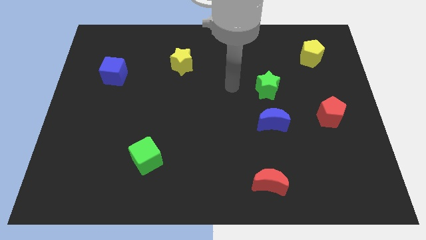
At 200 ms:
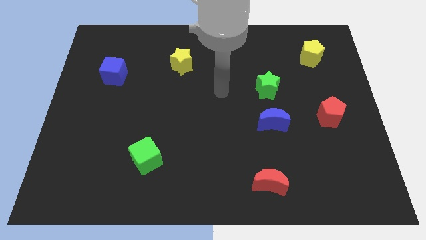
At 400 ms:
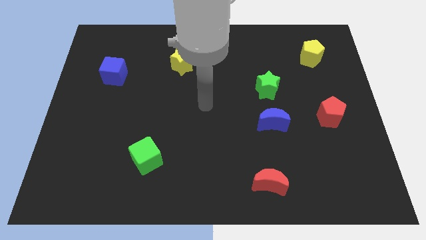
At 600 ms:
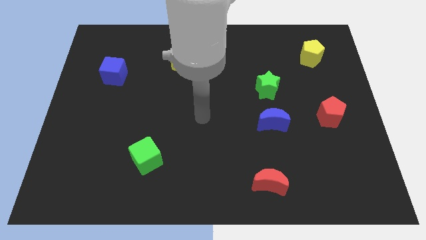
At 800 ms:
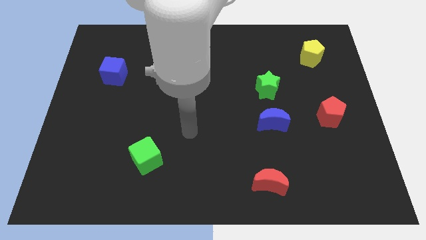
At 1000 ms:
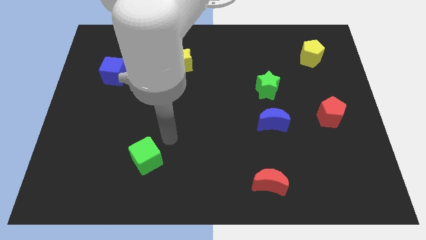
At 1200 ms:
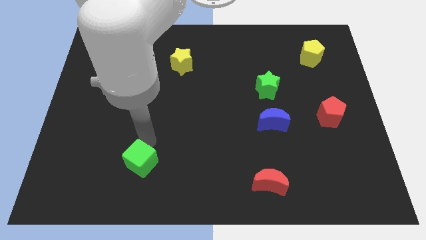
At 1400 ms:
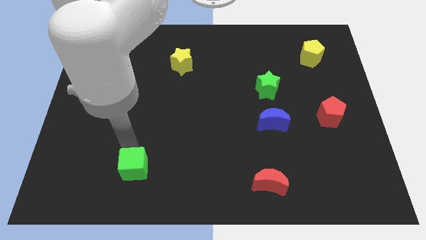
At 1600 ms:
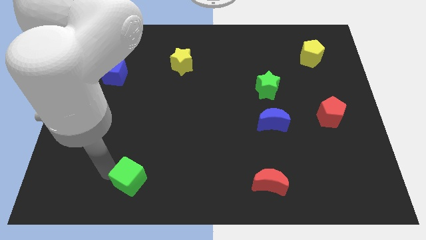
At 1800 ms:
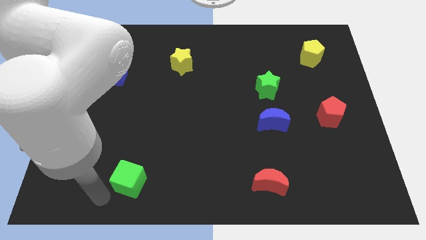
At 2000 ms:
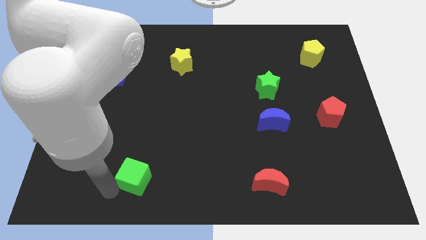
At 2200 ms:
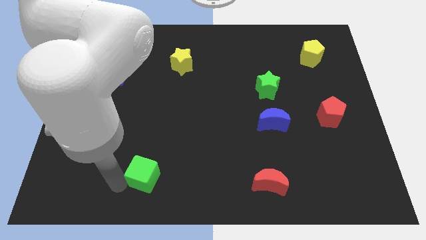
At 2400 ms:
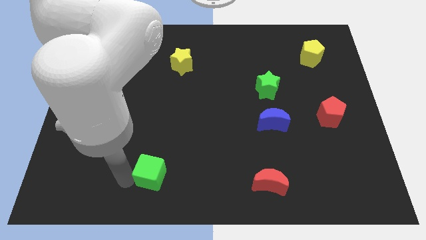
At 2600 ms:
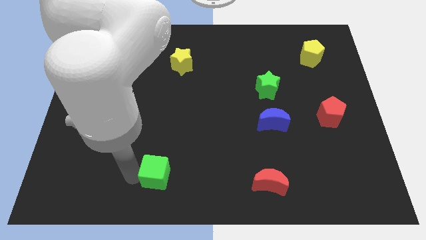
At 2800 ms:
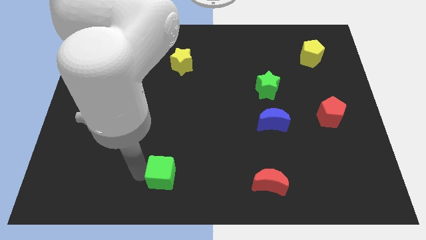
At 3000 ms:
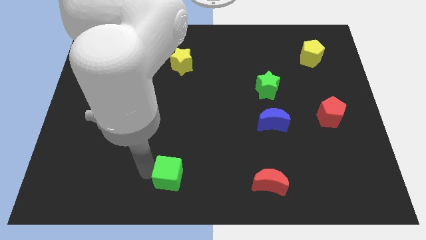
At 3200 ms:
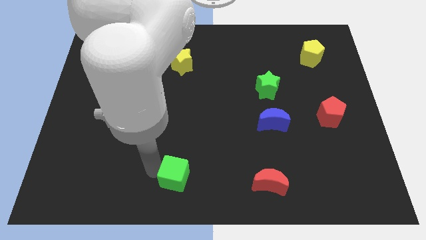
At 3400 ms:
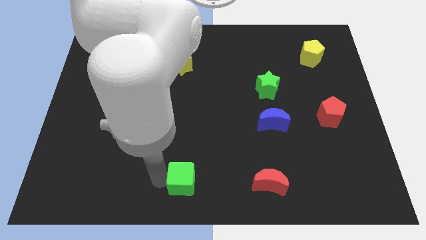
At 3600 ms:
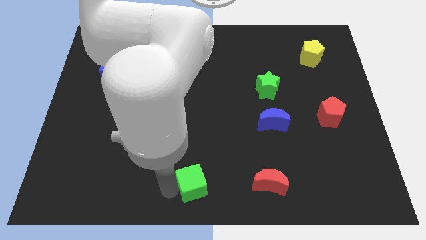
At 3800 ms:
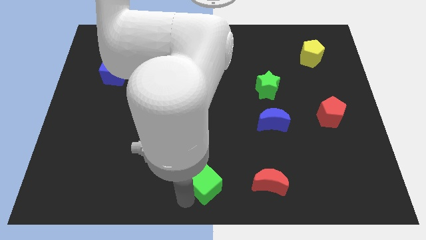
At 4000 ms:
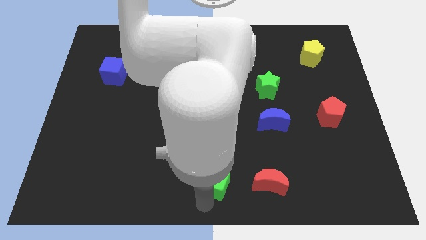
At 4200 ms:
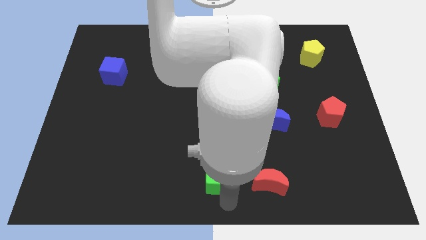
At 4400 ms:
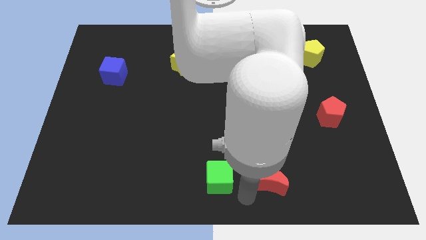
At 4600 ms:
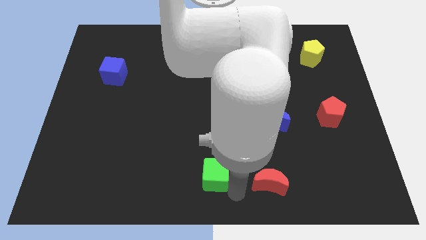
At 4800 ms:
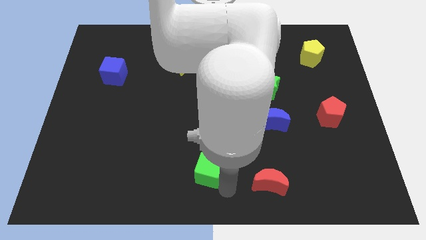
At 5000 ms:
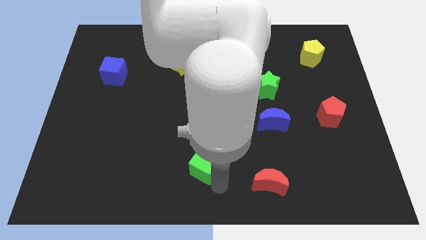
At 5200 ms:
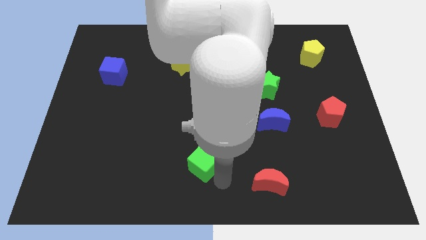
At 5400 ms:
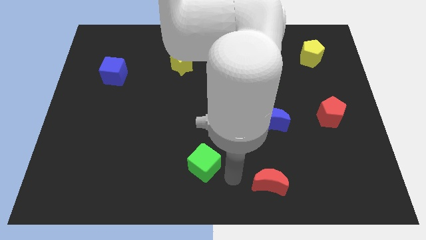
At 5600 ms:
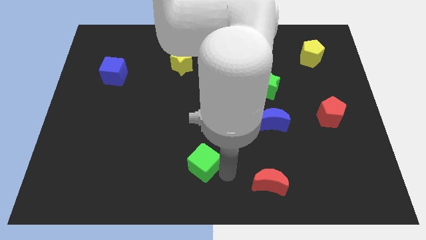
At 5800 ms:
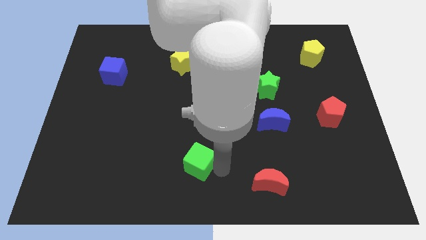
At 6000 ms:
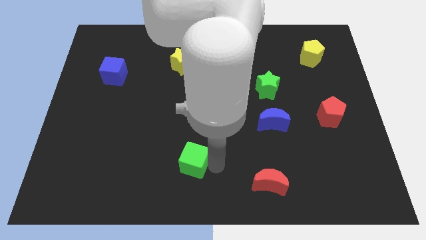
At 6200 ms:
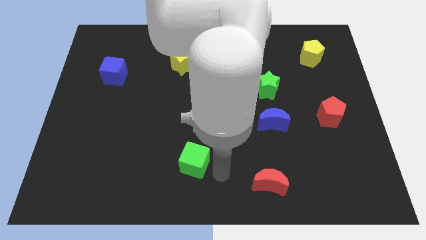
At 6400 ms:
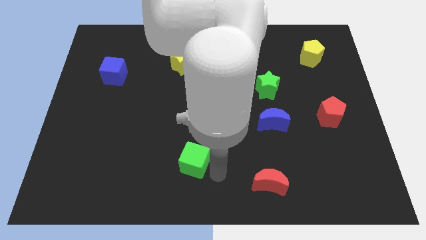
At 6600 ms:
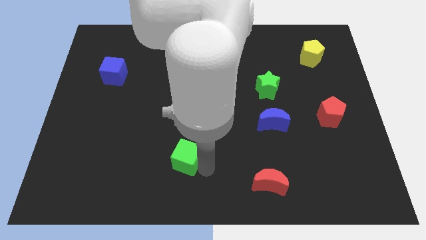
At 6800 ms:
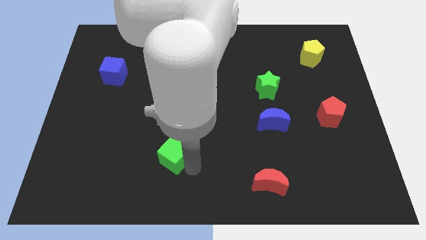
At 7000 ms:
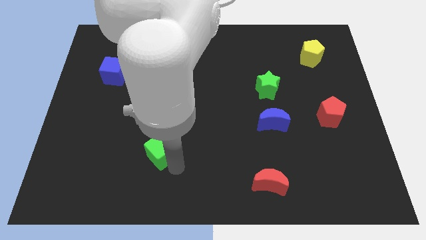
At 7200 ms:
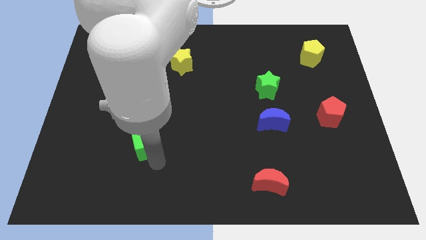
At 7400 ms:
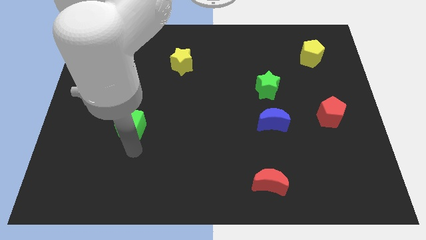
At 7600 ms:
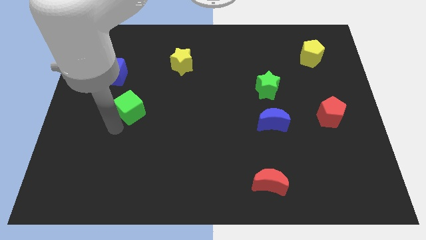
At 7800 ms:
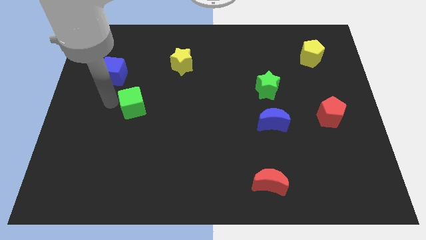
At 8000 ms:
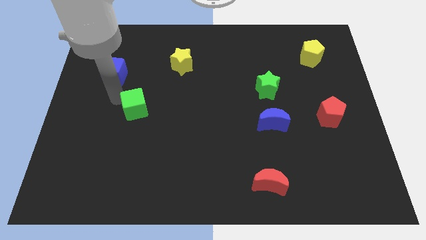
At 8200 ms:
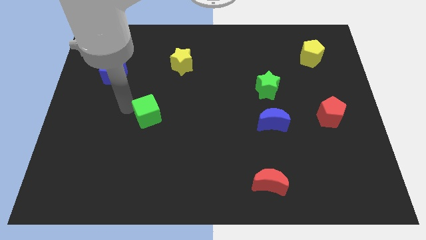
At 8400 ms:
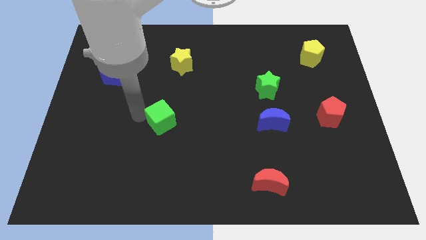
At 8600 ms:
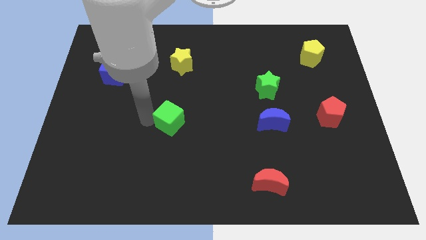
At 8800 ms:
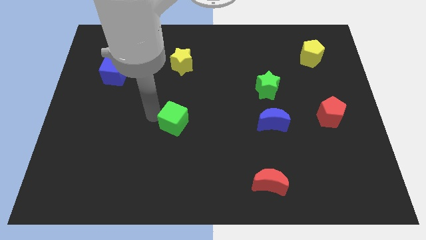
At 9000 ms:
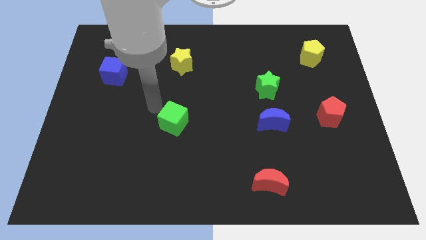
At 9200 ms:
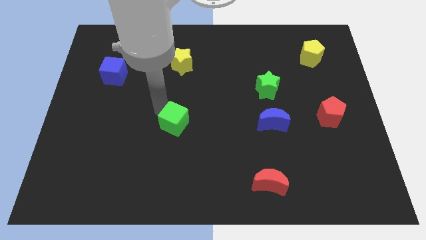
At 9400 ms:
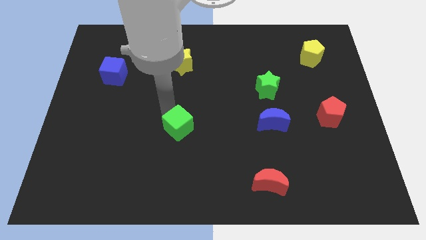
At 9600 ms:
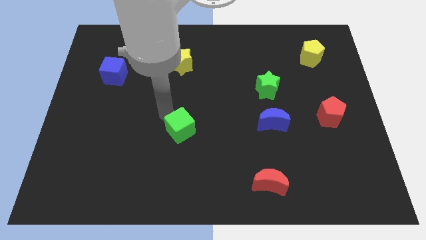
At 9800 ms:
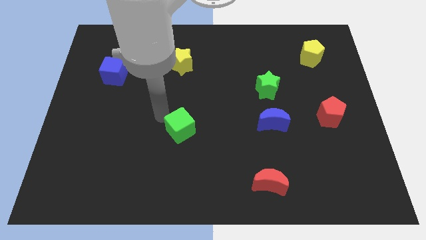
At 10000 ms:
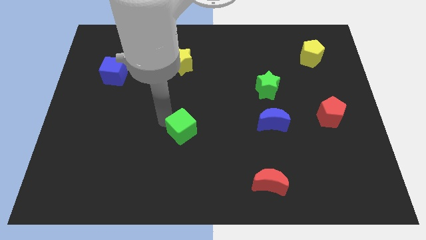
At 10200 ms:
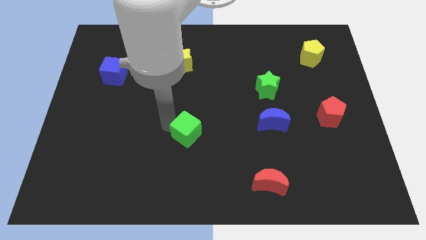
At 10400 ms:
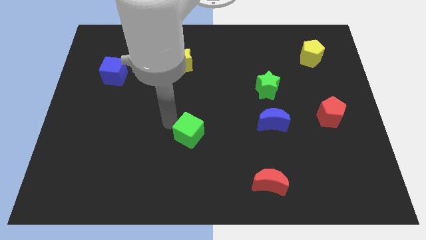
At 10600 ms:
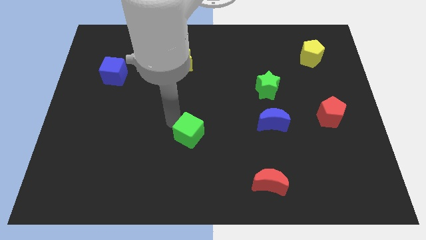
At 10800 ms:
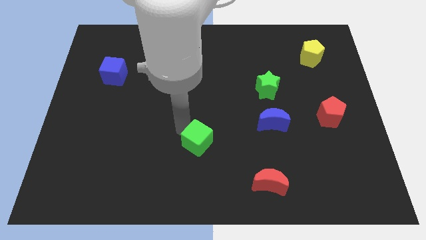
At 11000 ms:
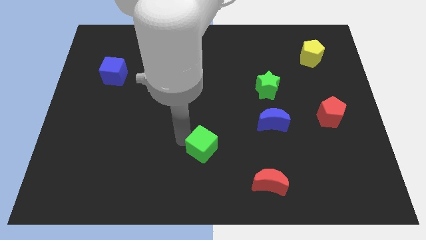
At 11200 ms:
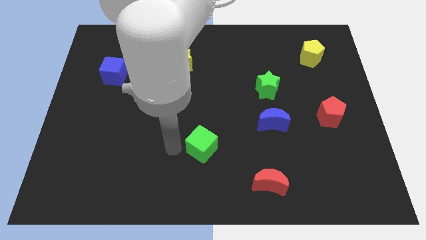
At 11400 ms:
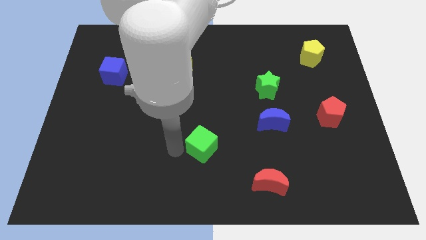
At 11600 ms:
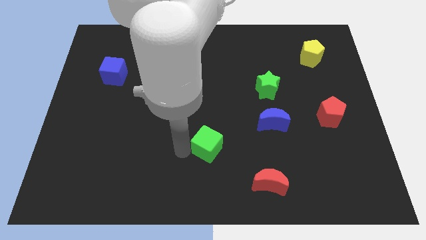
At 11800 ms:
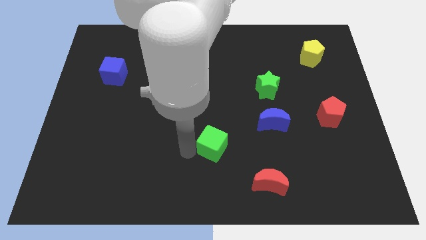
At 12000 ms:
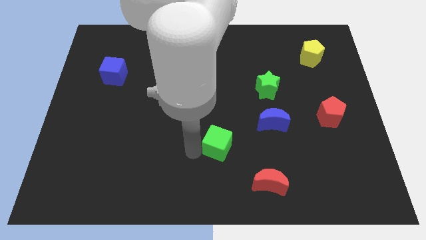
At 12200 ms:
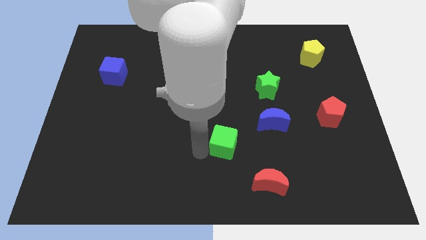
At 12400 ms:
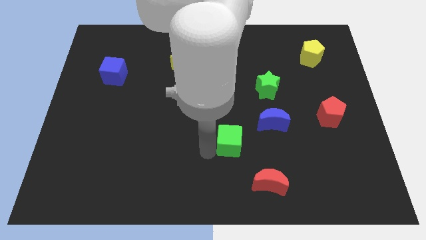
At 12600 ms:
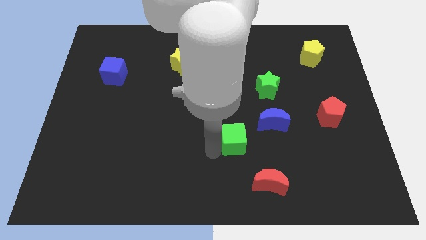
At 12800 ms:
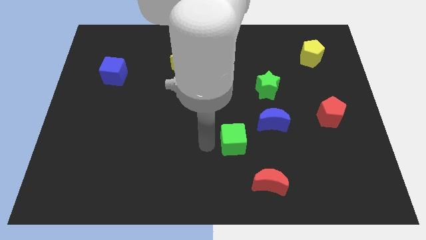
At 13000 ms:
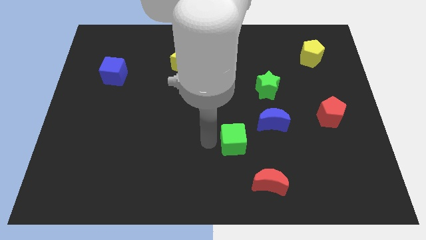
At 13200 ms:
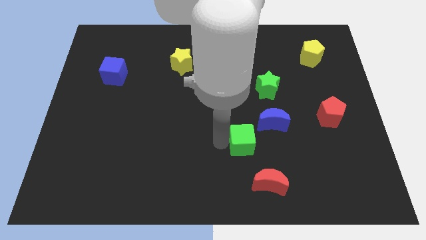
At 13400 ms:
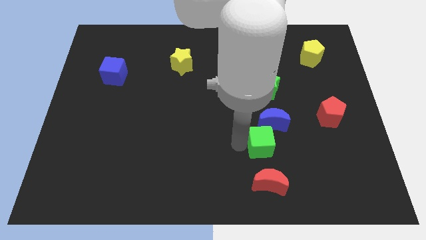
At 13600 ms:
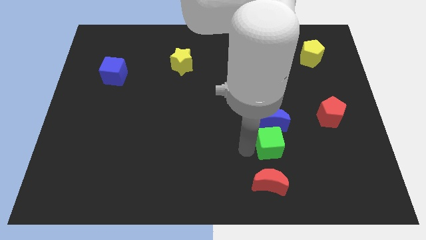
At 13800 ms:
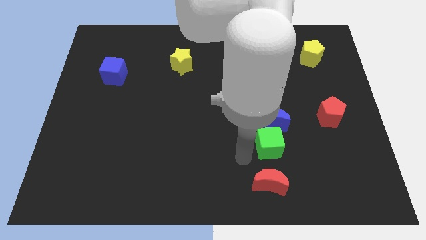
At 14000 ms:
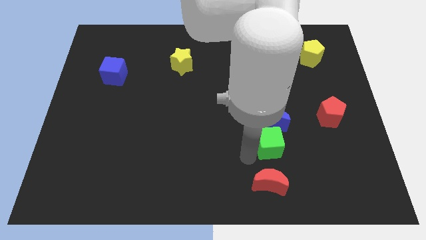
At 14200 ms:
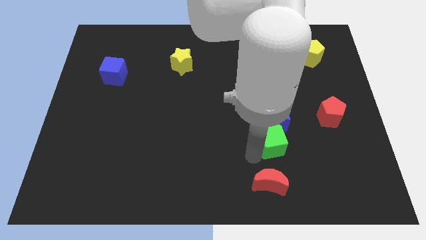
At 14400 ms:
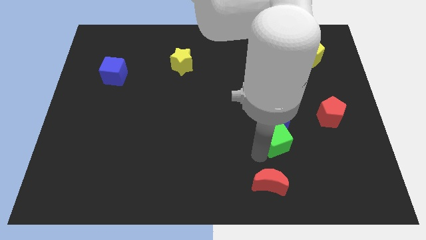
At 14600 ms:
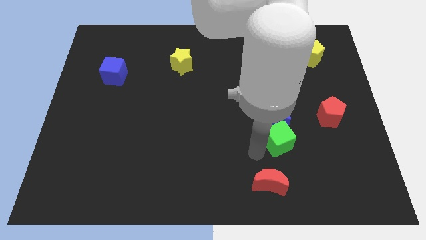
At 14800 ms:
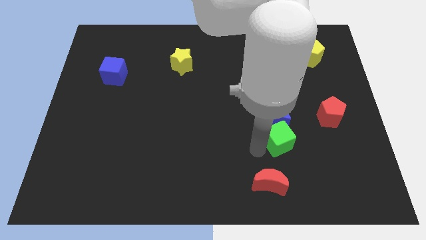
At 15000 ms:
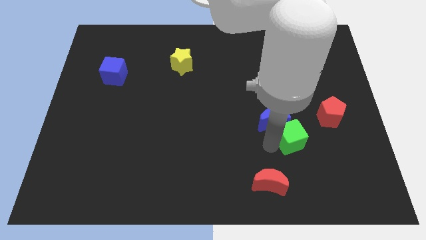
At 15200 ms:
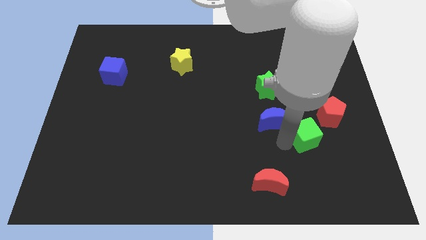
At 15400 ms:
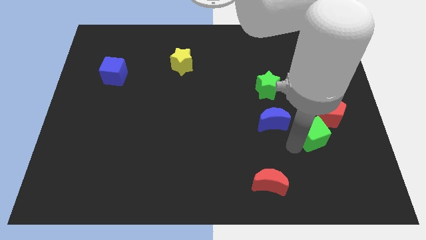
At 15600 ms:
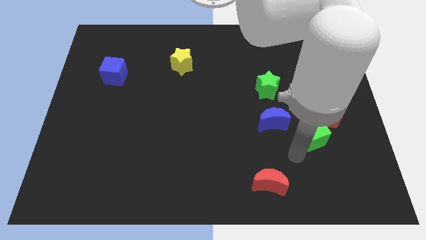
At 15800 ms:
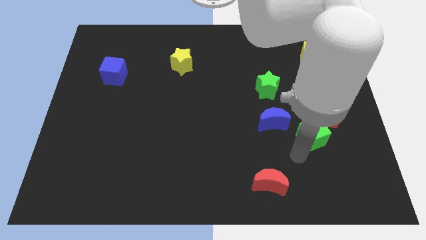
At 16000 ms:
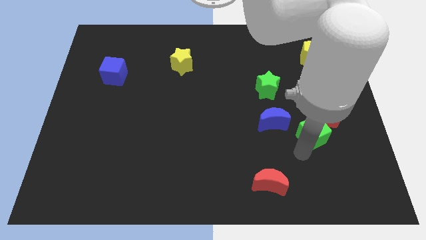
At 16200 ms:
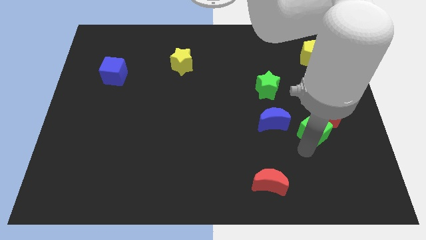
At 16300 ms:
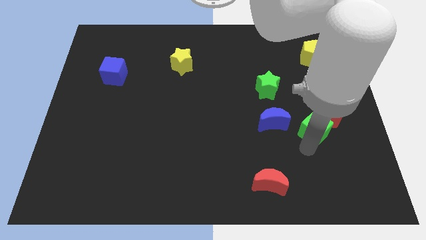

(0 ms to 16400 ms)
put the green cube towards the red pentagon
